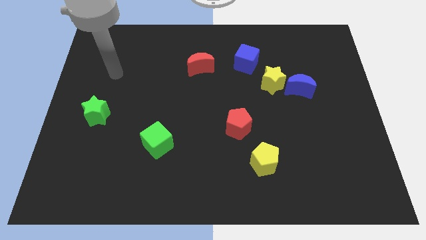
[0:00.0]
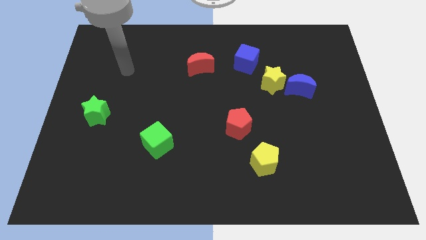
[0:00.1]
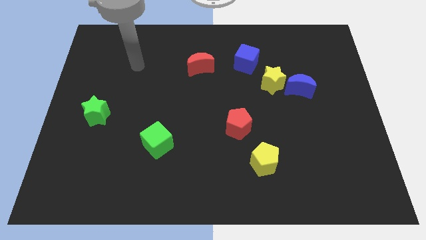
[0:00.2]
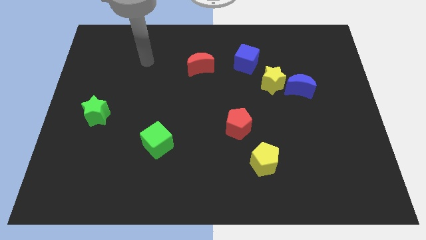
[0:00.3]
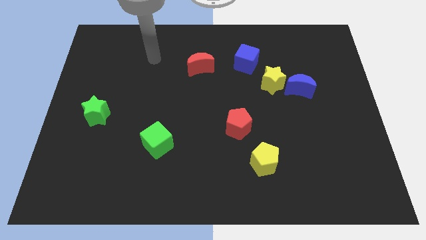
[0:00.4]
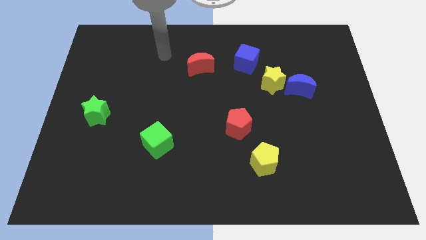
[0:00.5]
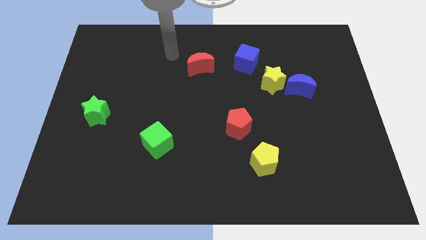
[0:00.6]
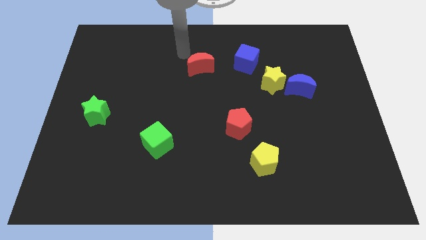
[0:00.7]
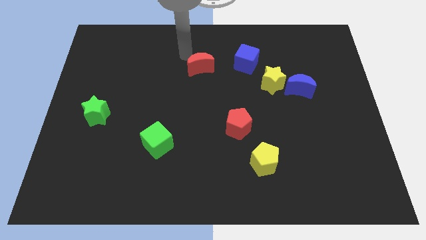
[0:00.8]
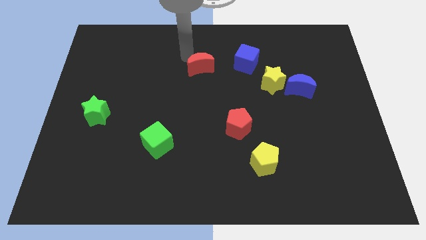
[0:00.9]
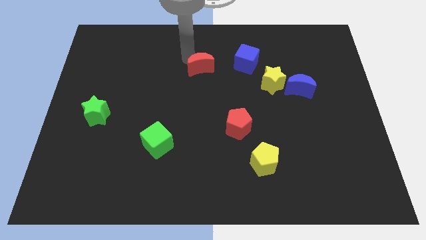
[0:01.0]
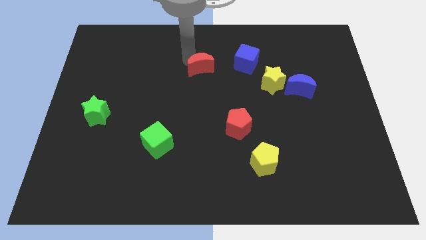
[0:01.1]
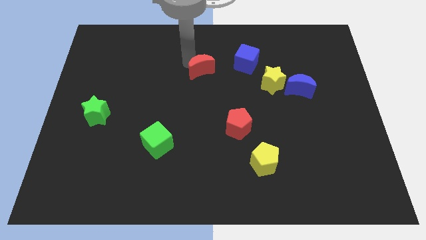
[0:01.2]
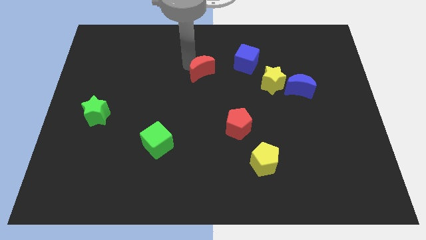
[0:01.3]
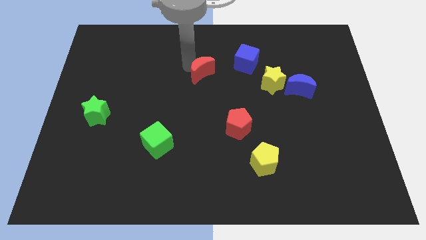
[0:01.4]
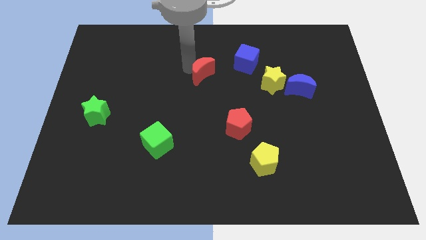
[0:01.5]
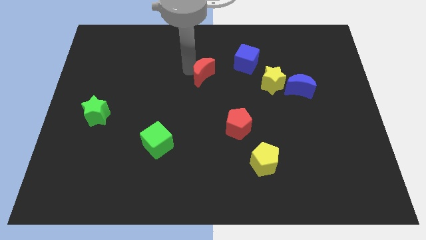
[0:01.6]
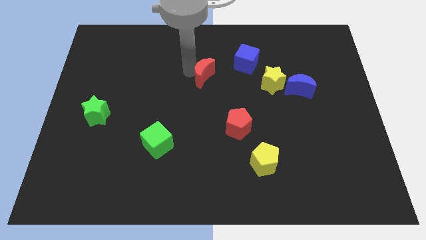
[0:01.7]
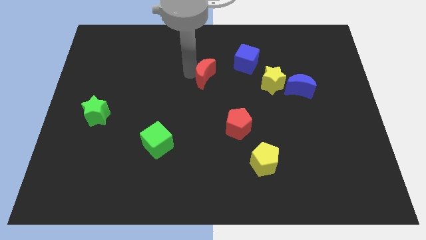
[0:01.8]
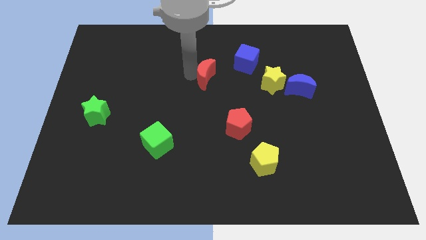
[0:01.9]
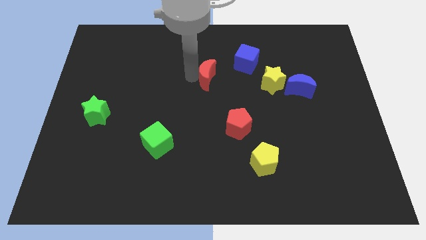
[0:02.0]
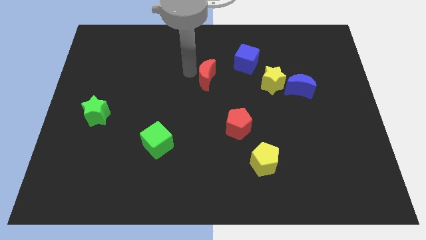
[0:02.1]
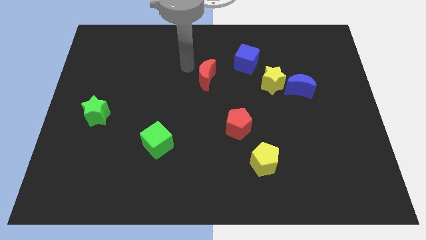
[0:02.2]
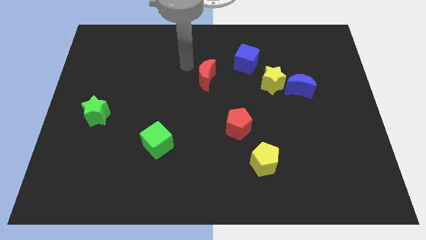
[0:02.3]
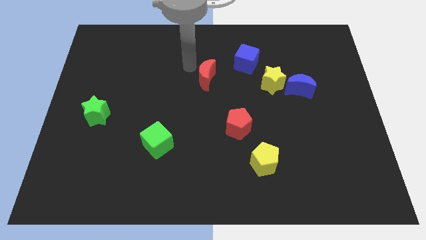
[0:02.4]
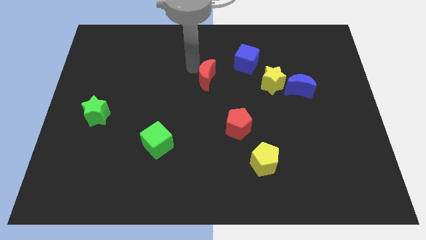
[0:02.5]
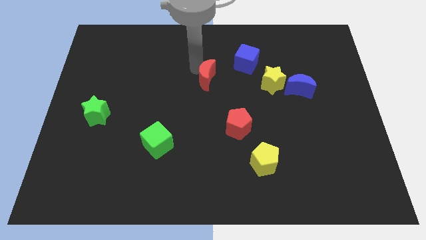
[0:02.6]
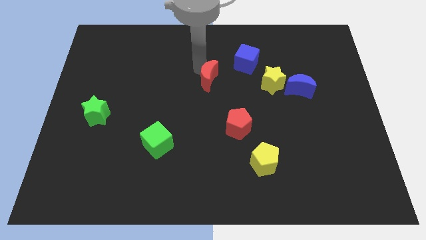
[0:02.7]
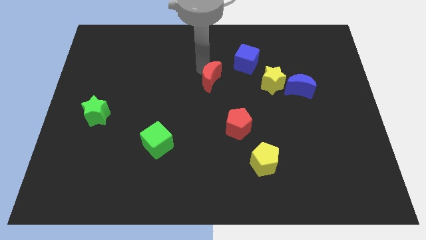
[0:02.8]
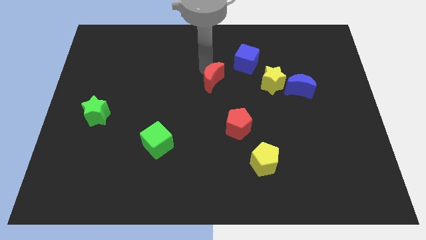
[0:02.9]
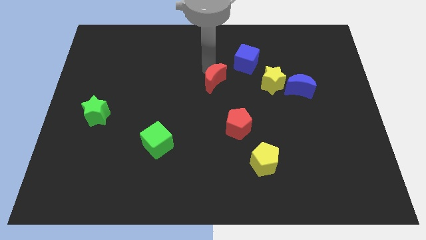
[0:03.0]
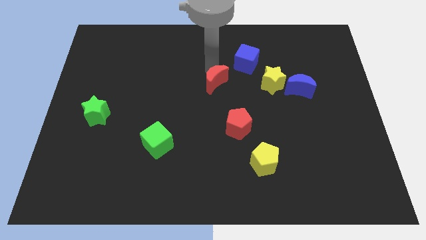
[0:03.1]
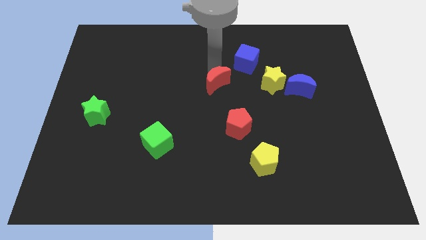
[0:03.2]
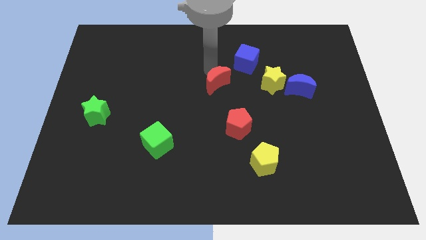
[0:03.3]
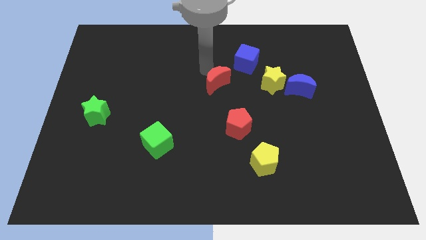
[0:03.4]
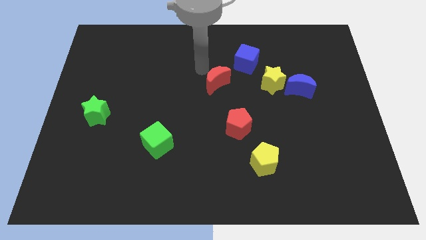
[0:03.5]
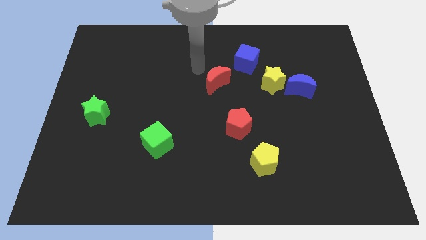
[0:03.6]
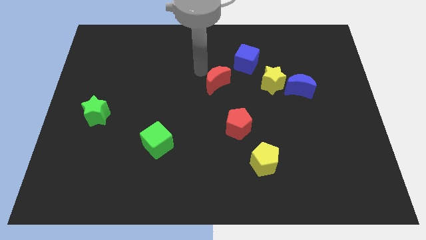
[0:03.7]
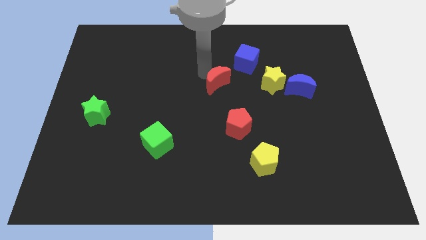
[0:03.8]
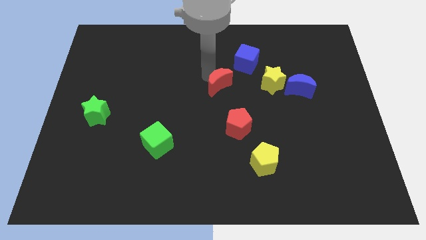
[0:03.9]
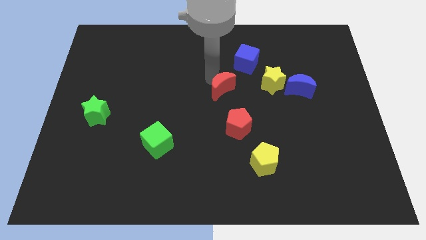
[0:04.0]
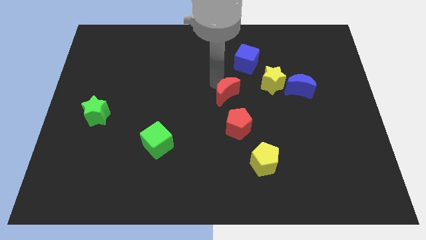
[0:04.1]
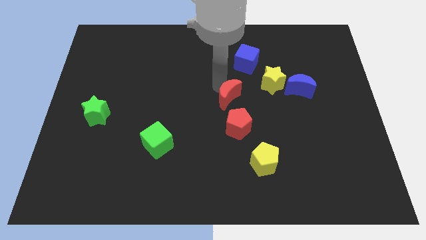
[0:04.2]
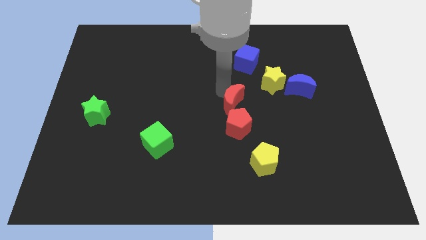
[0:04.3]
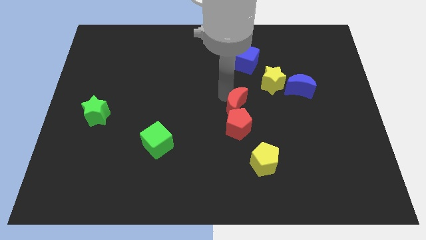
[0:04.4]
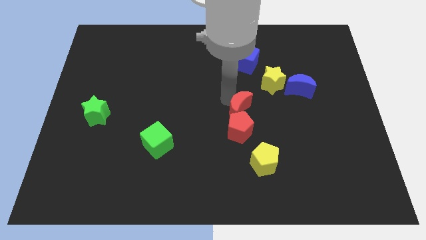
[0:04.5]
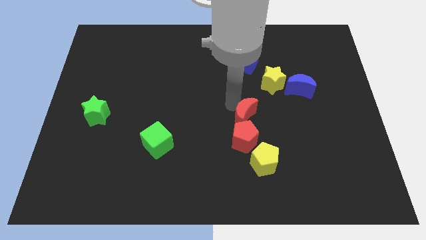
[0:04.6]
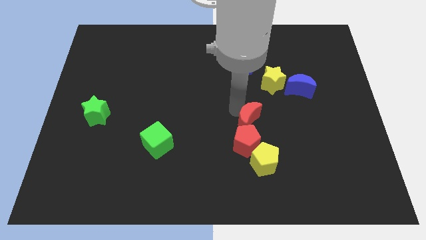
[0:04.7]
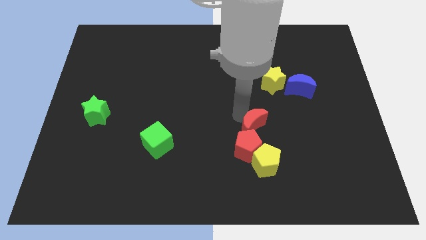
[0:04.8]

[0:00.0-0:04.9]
slide the red moon downwards and right

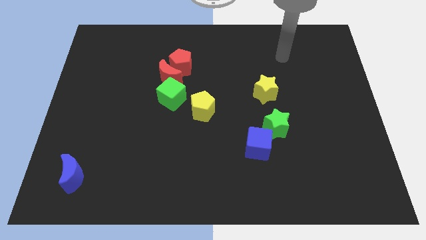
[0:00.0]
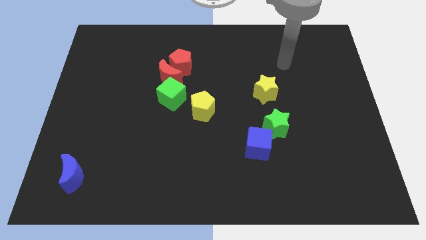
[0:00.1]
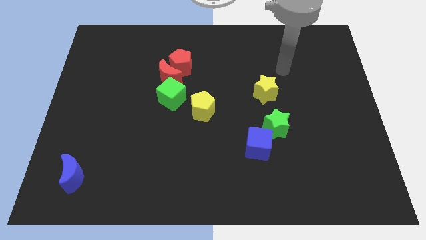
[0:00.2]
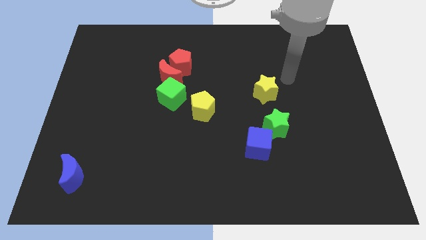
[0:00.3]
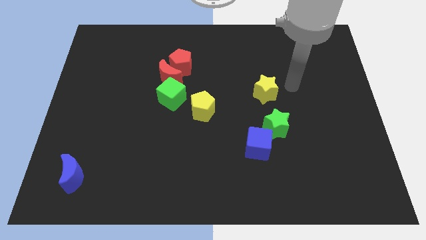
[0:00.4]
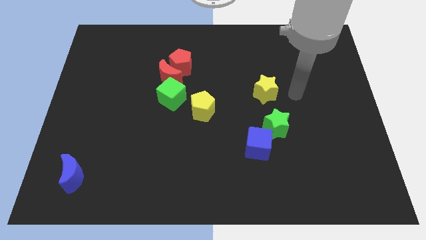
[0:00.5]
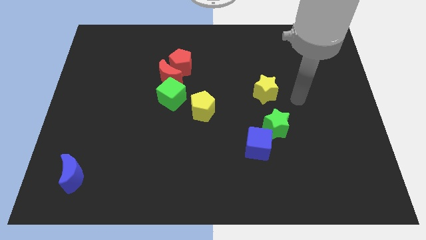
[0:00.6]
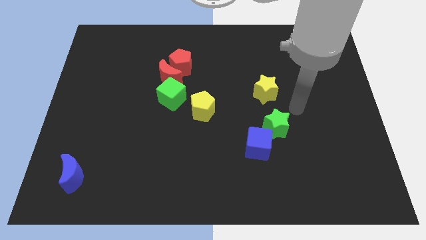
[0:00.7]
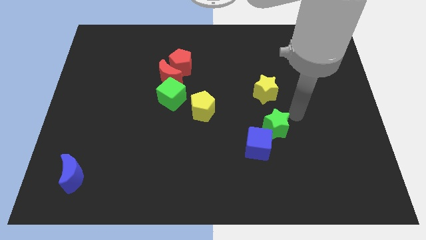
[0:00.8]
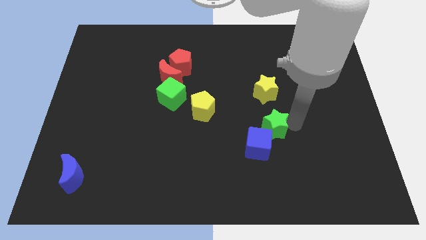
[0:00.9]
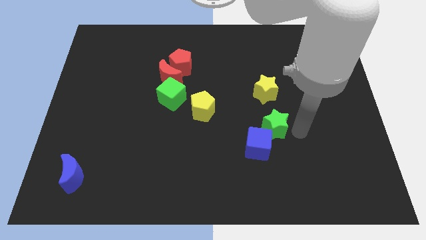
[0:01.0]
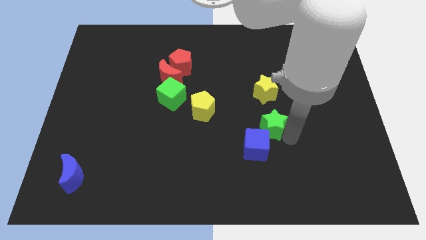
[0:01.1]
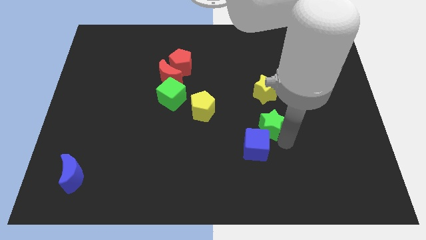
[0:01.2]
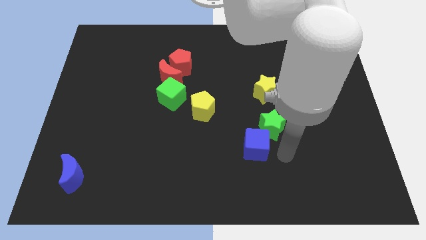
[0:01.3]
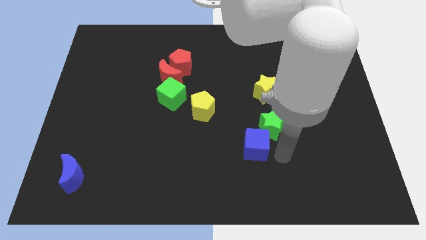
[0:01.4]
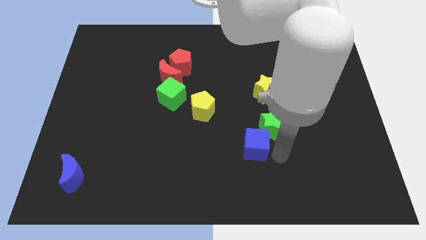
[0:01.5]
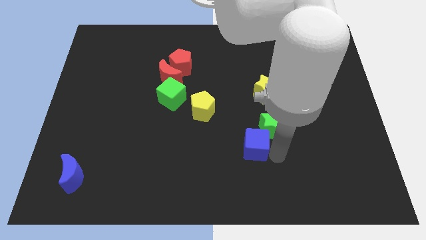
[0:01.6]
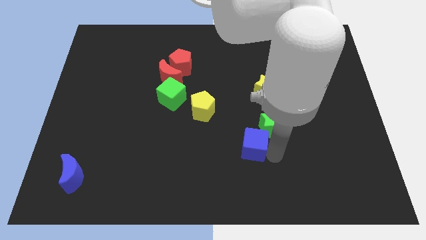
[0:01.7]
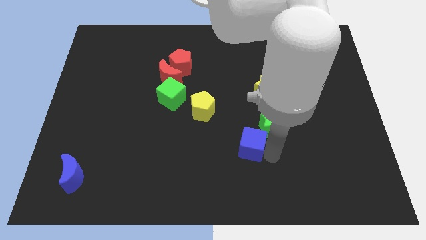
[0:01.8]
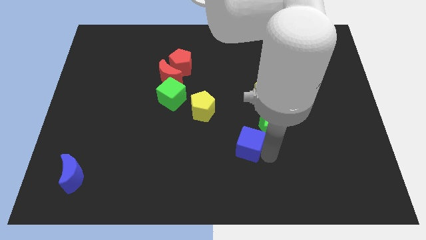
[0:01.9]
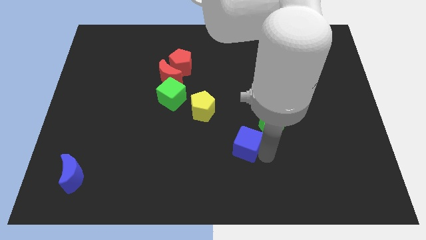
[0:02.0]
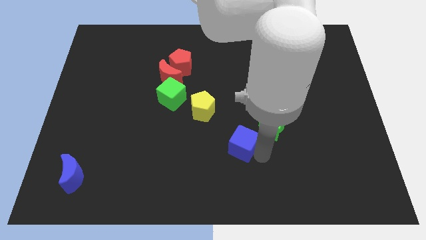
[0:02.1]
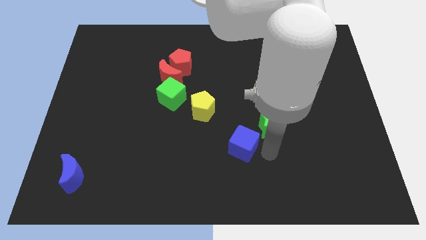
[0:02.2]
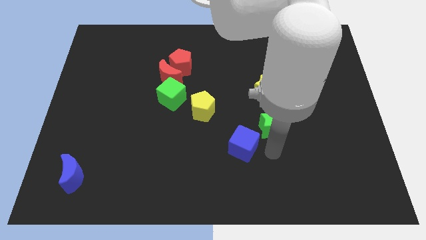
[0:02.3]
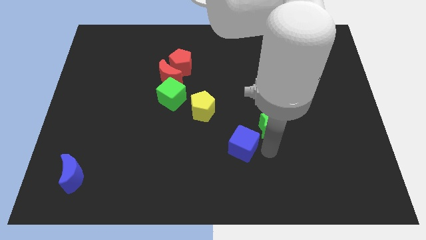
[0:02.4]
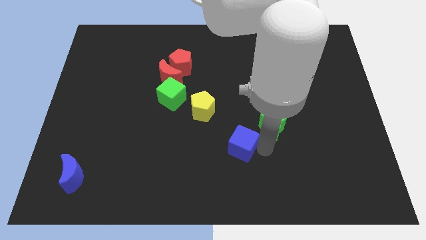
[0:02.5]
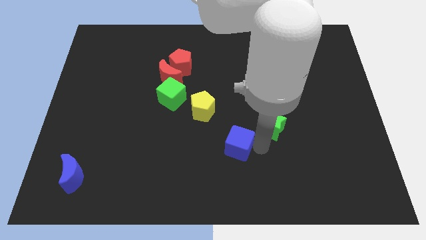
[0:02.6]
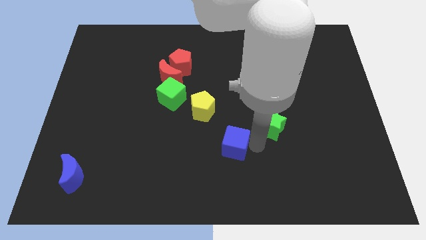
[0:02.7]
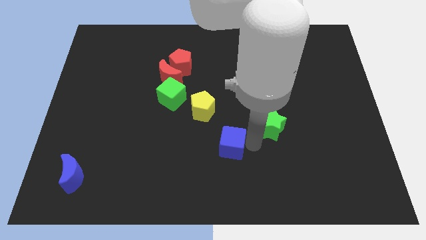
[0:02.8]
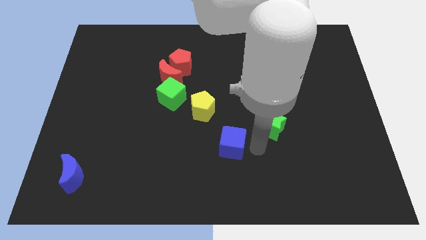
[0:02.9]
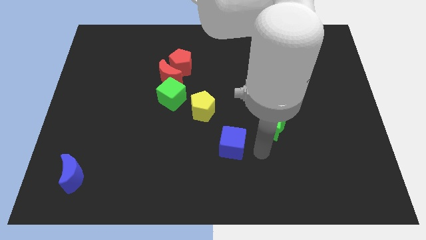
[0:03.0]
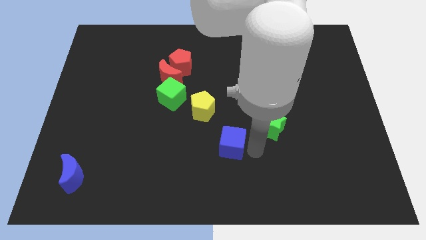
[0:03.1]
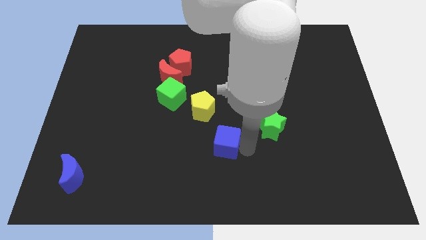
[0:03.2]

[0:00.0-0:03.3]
slightly push the blue cube to the left
